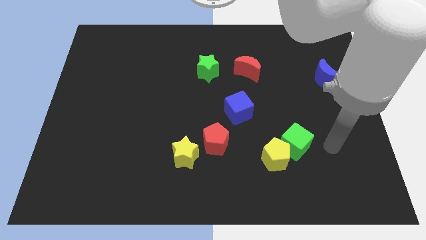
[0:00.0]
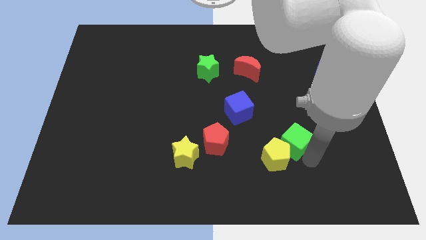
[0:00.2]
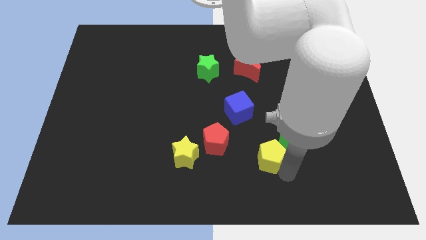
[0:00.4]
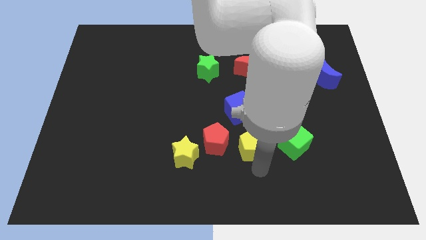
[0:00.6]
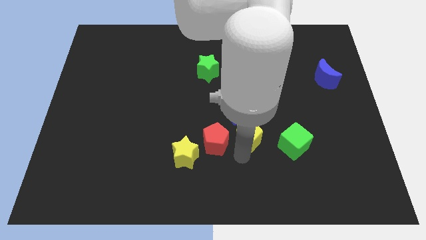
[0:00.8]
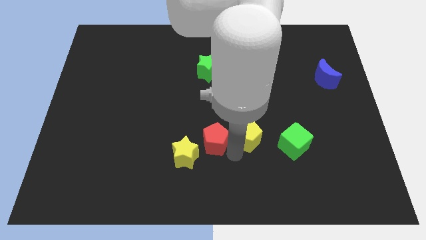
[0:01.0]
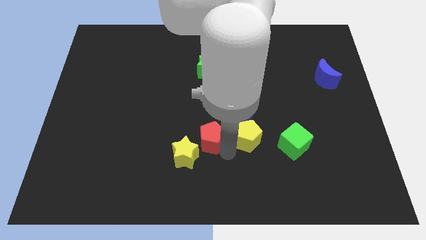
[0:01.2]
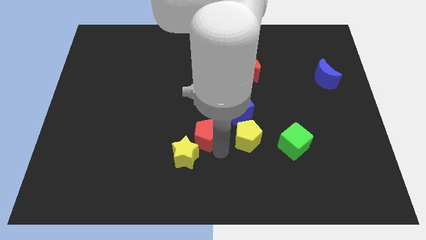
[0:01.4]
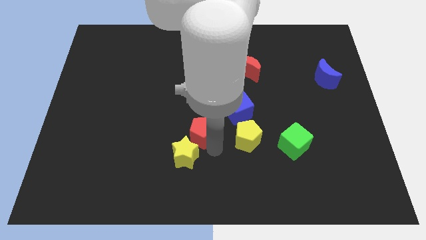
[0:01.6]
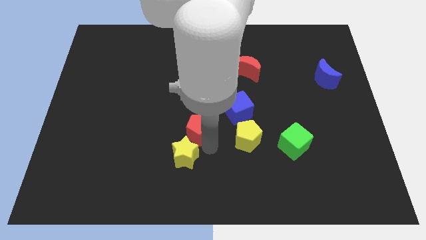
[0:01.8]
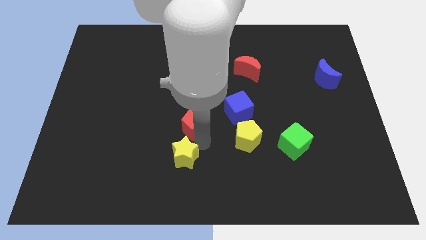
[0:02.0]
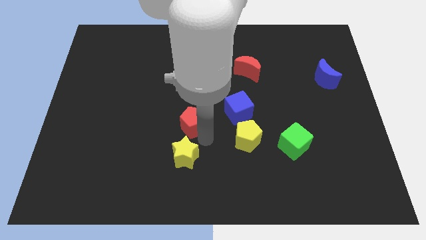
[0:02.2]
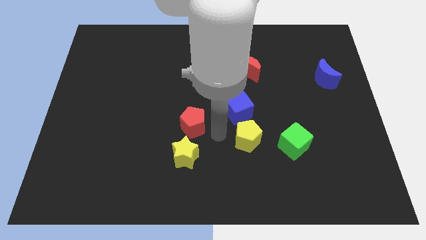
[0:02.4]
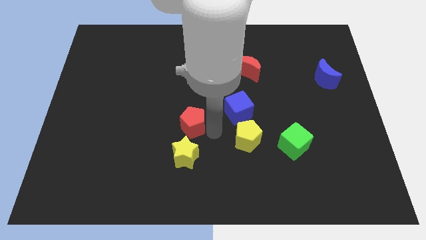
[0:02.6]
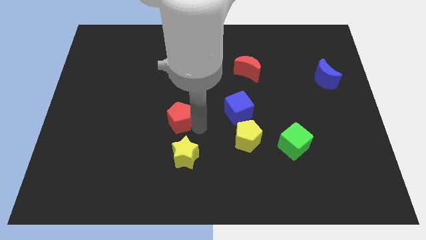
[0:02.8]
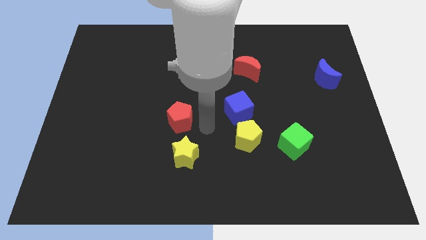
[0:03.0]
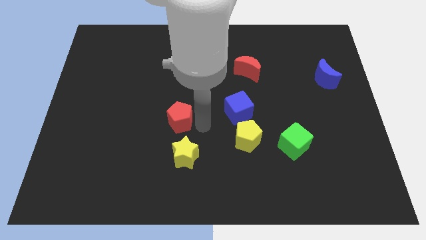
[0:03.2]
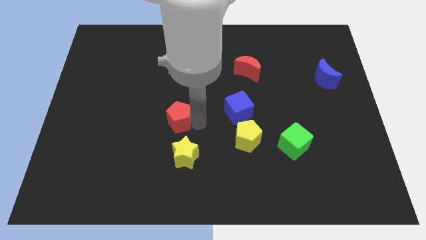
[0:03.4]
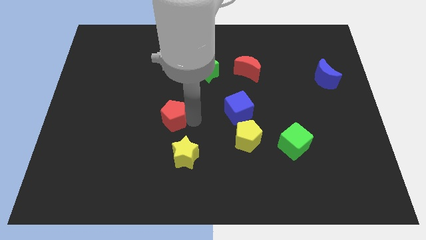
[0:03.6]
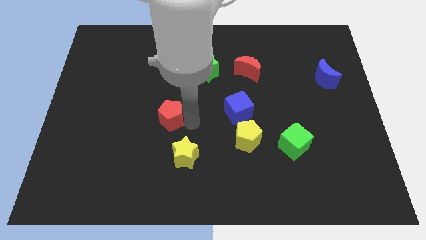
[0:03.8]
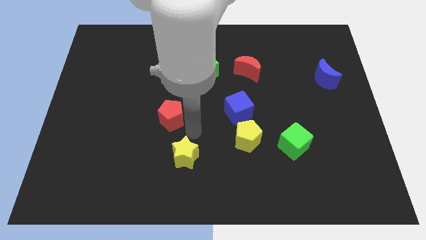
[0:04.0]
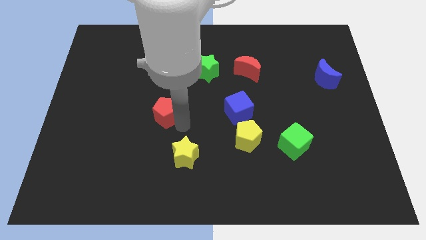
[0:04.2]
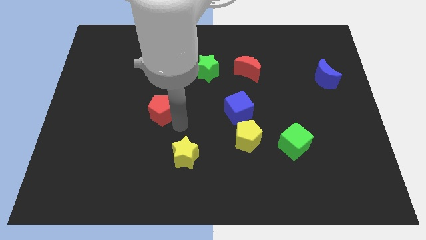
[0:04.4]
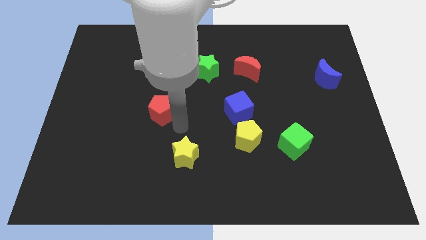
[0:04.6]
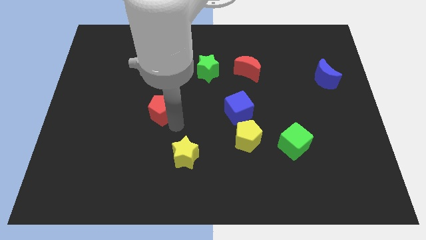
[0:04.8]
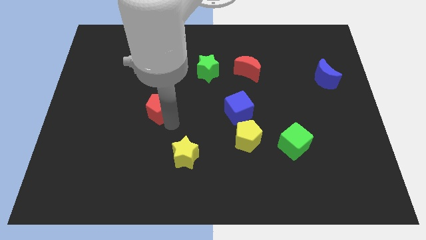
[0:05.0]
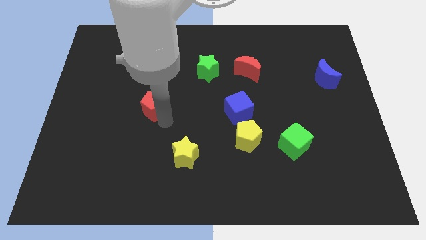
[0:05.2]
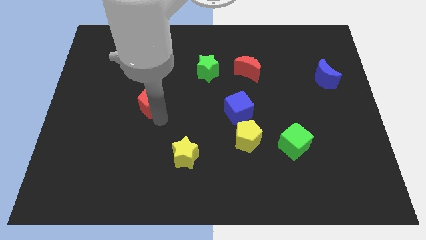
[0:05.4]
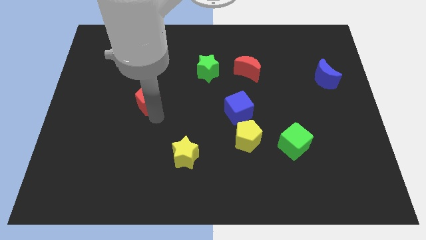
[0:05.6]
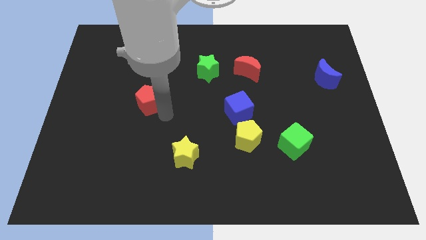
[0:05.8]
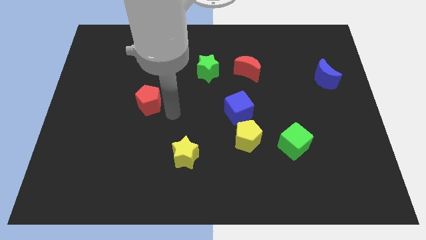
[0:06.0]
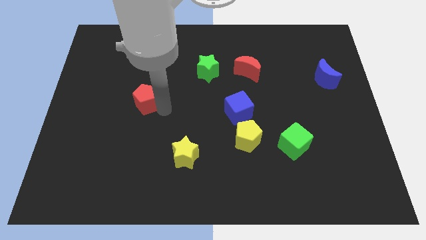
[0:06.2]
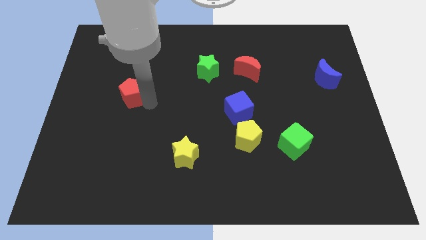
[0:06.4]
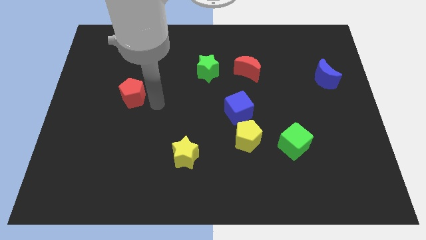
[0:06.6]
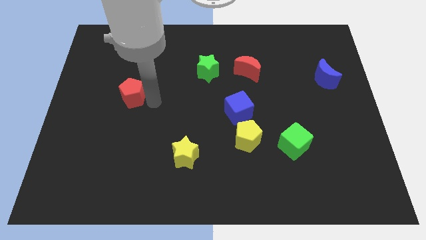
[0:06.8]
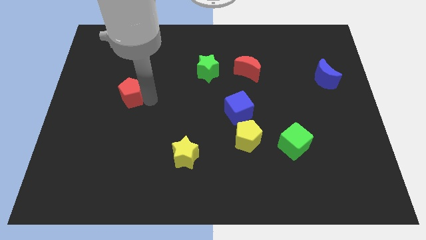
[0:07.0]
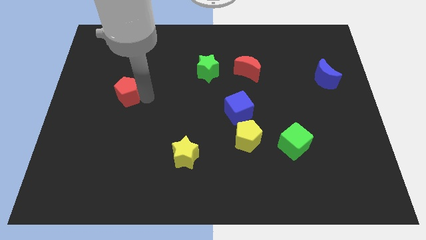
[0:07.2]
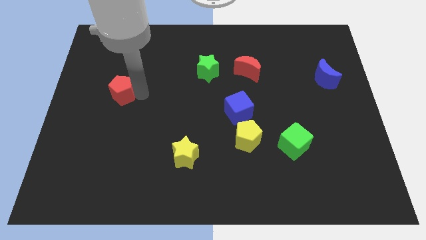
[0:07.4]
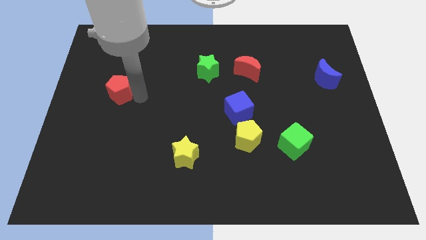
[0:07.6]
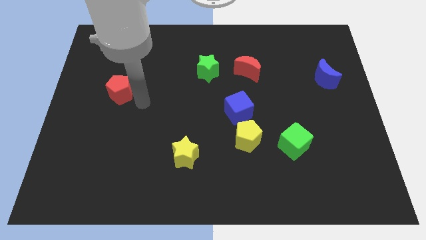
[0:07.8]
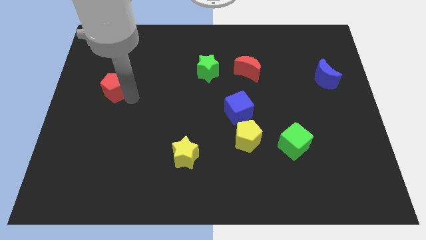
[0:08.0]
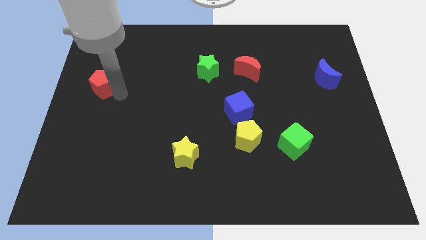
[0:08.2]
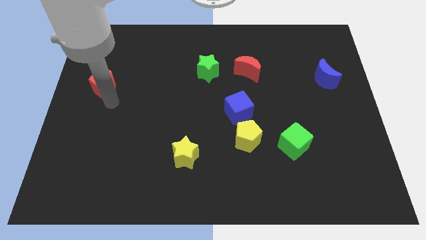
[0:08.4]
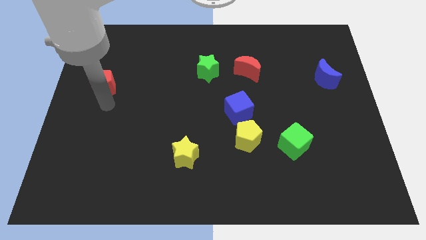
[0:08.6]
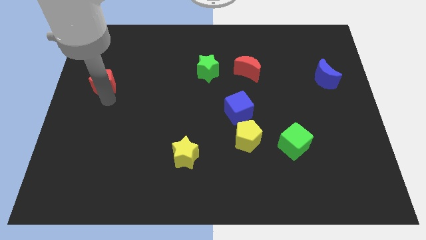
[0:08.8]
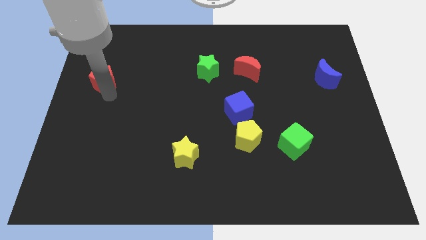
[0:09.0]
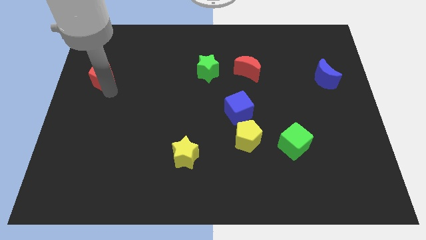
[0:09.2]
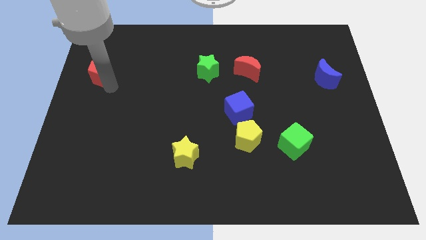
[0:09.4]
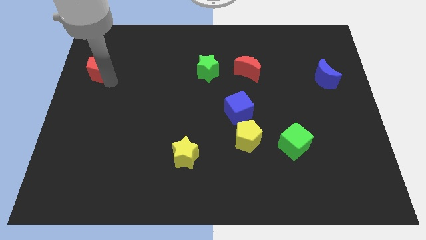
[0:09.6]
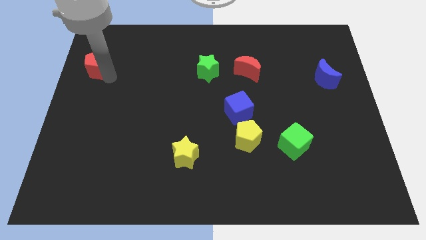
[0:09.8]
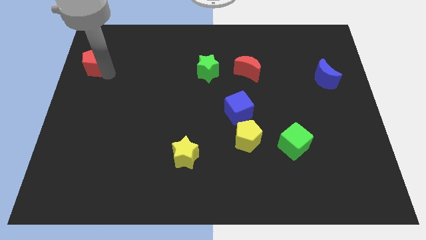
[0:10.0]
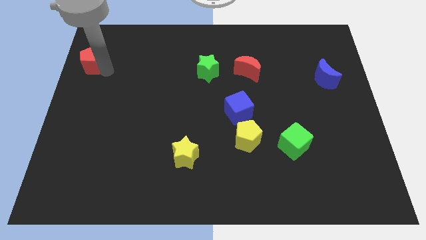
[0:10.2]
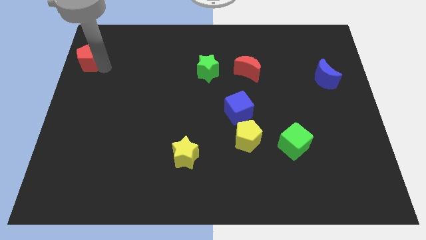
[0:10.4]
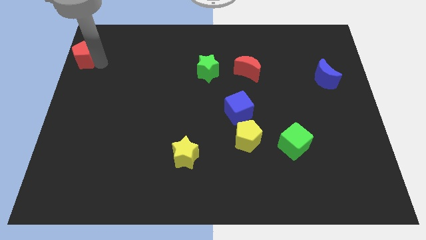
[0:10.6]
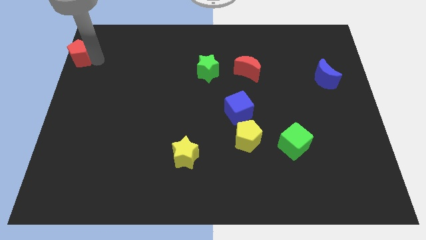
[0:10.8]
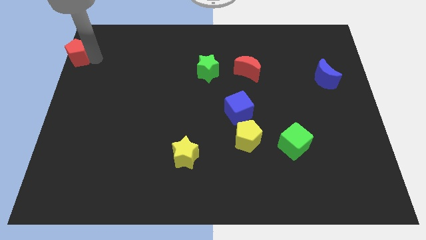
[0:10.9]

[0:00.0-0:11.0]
slide the red pentagon to the top left

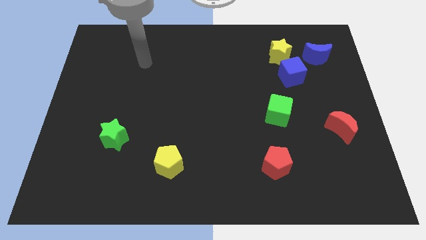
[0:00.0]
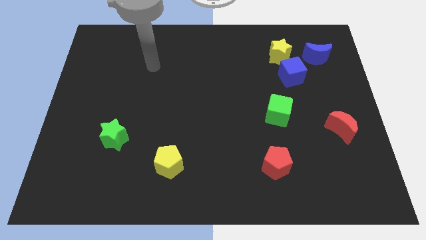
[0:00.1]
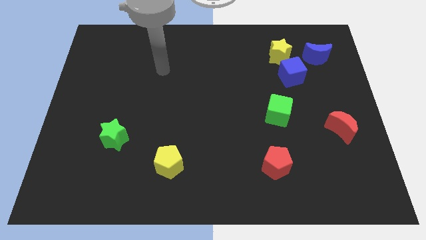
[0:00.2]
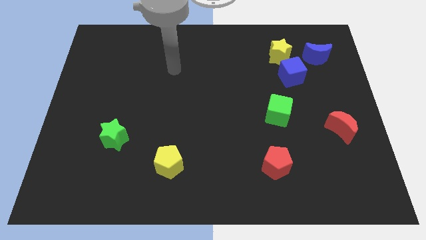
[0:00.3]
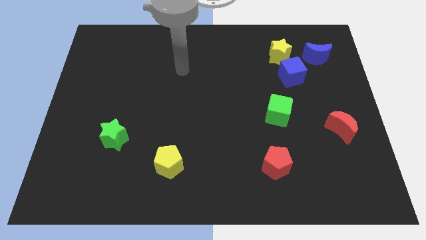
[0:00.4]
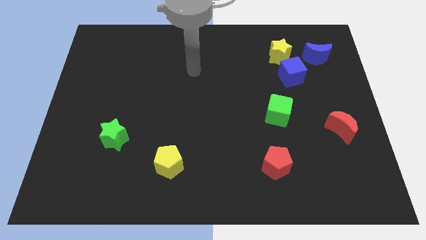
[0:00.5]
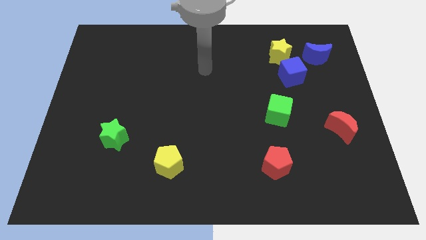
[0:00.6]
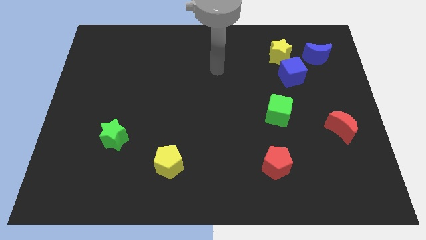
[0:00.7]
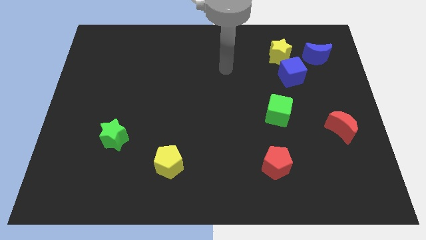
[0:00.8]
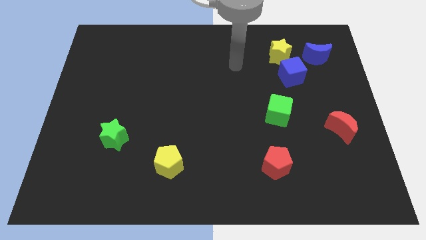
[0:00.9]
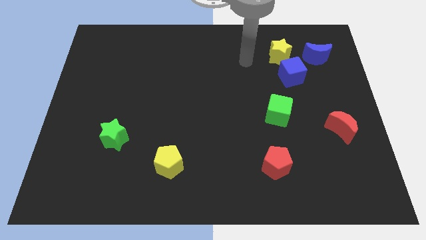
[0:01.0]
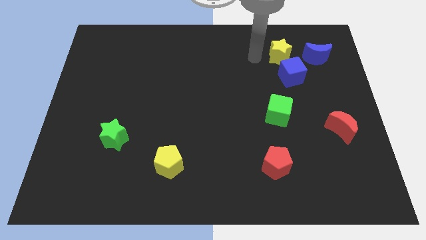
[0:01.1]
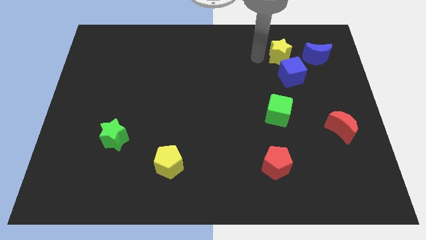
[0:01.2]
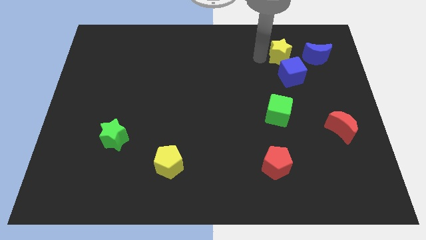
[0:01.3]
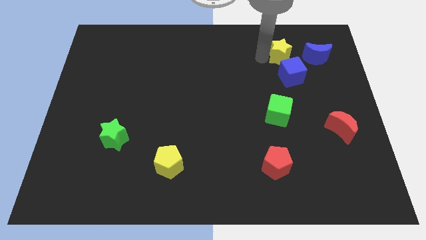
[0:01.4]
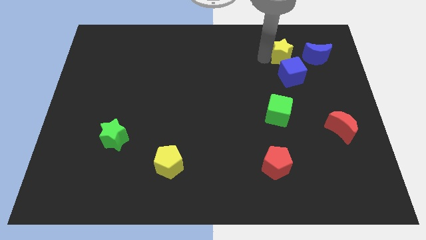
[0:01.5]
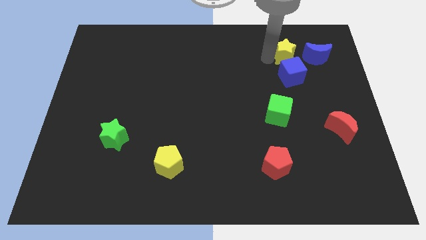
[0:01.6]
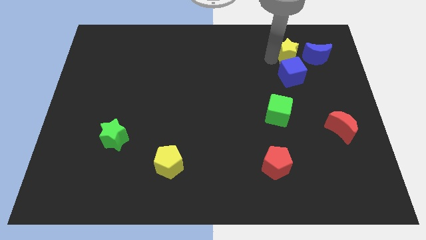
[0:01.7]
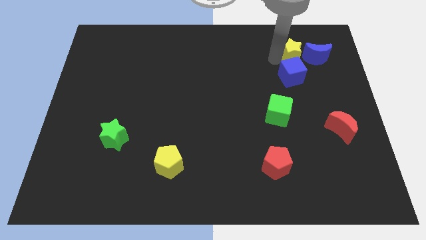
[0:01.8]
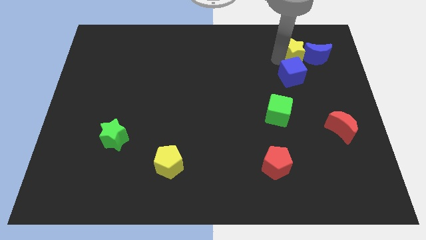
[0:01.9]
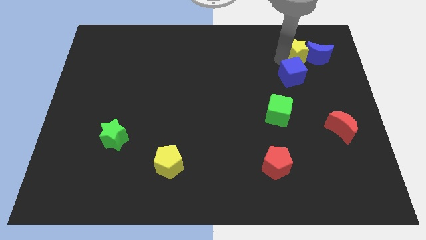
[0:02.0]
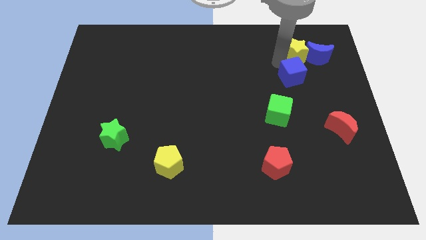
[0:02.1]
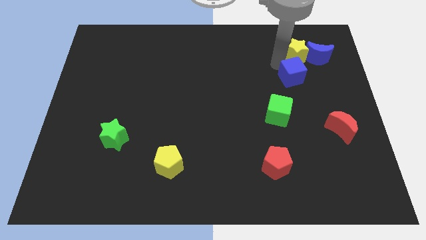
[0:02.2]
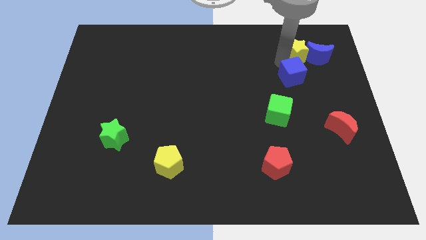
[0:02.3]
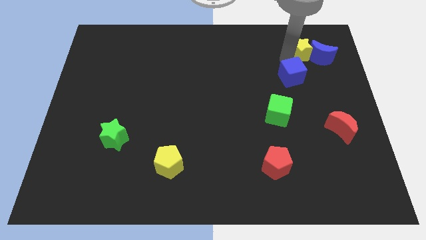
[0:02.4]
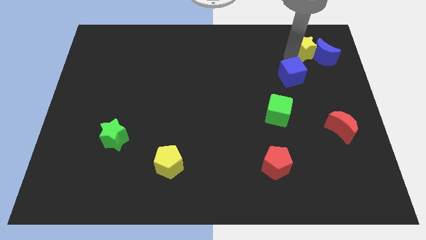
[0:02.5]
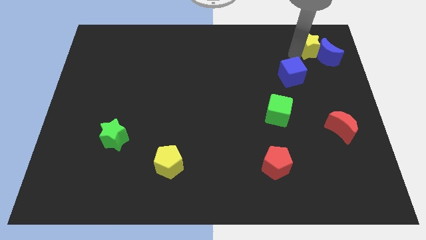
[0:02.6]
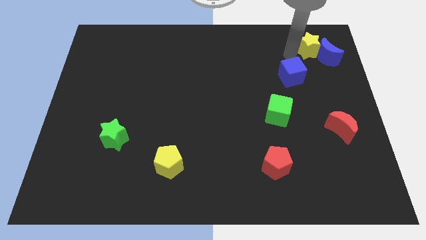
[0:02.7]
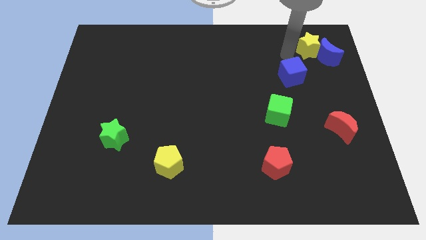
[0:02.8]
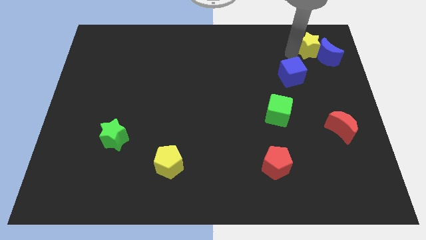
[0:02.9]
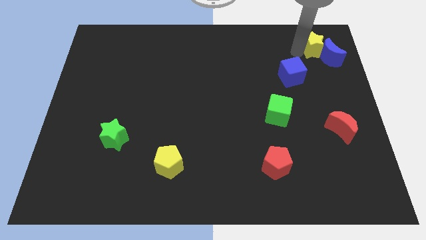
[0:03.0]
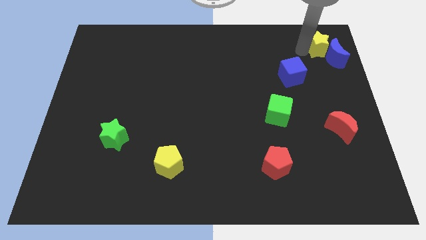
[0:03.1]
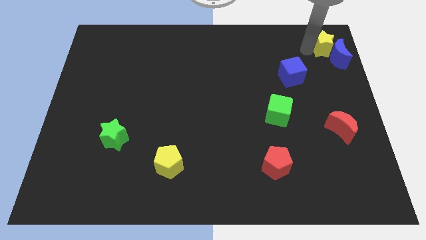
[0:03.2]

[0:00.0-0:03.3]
move the yellow star to the upper right corner

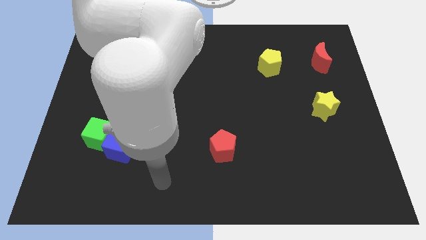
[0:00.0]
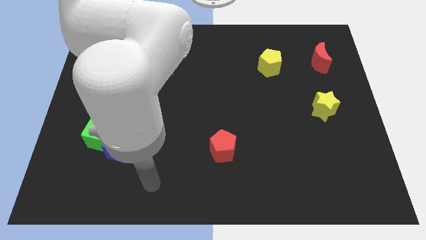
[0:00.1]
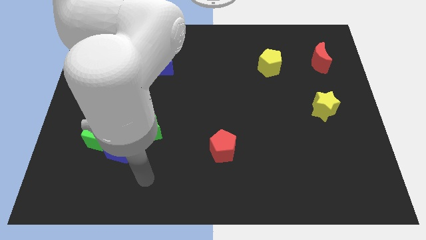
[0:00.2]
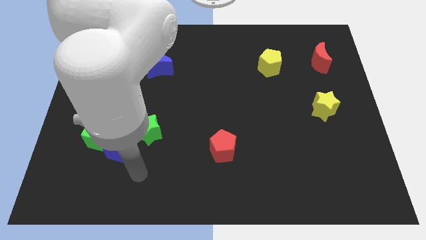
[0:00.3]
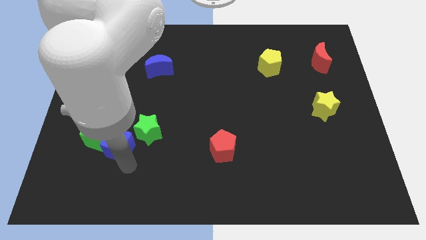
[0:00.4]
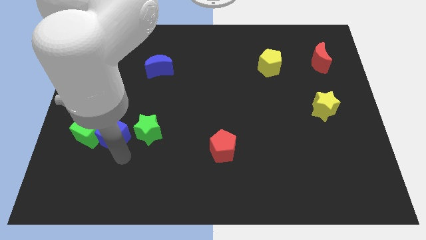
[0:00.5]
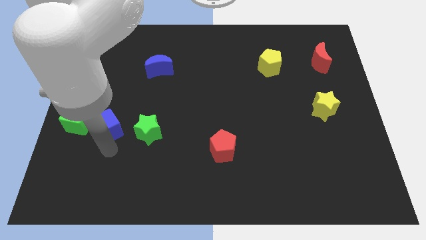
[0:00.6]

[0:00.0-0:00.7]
put the green cube to the center left
